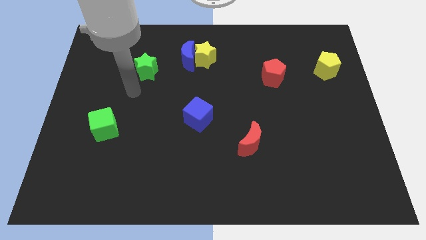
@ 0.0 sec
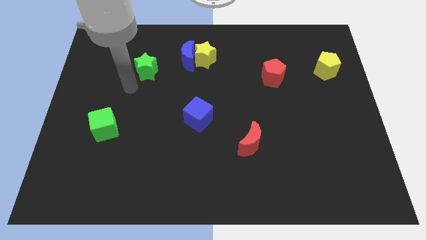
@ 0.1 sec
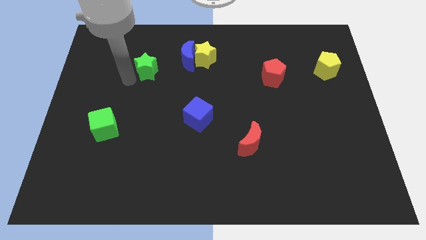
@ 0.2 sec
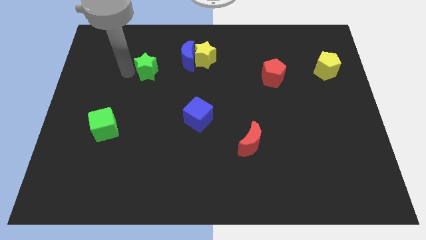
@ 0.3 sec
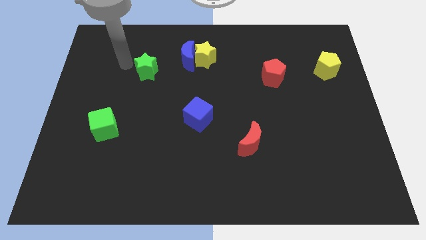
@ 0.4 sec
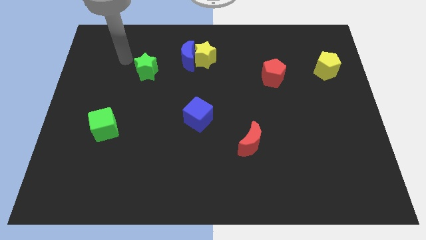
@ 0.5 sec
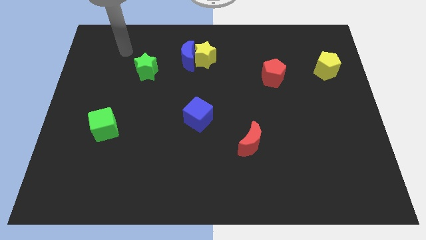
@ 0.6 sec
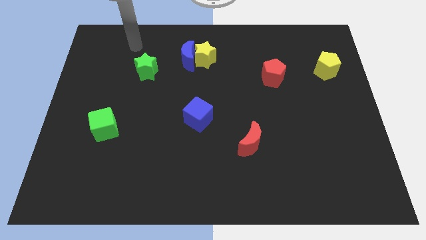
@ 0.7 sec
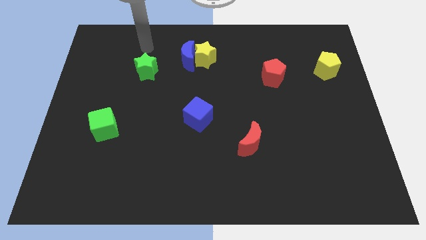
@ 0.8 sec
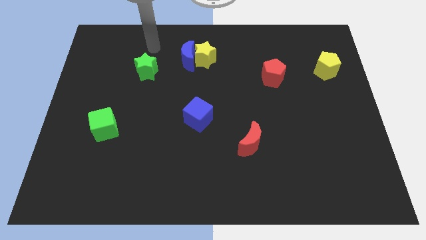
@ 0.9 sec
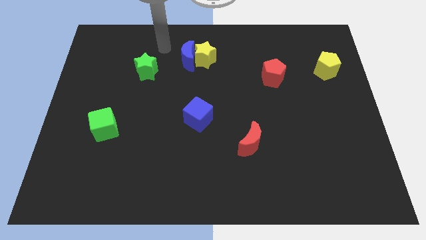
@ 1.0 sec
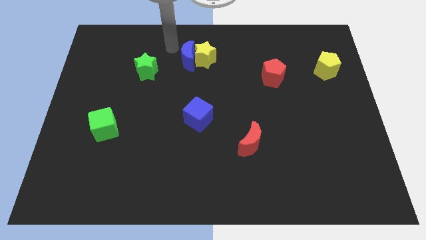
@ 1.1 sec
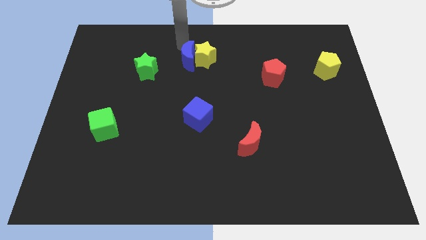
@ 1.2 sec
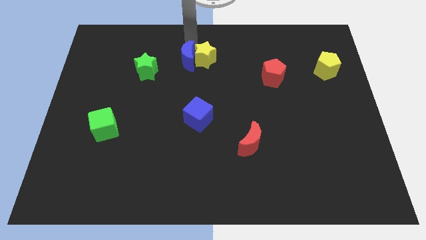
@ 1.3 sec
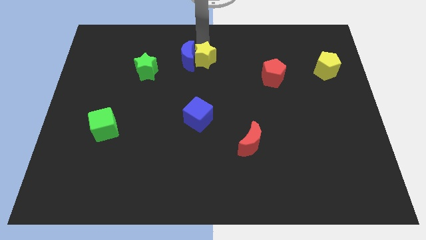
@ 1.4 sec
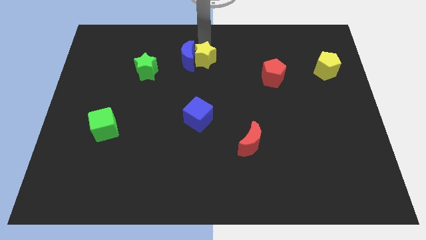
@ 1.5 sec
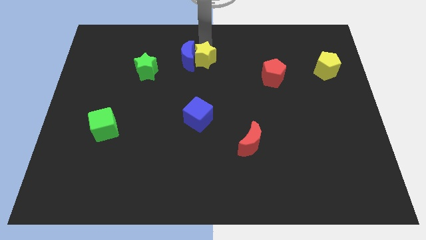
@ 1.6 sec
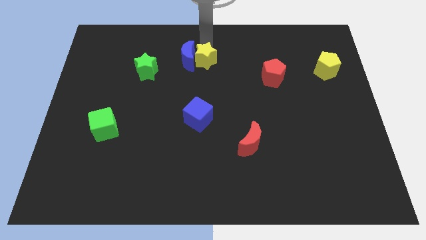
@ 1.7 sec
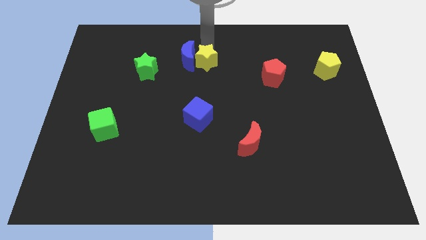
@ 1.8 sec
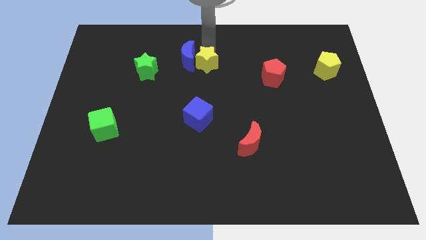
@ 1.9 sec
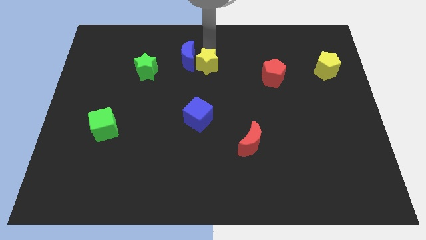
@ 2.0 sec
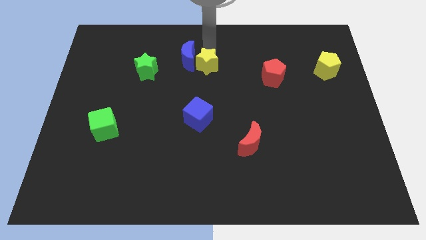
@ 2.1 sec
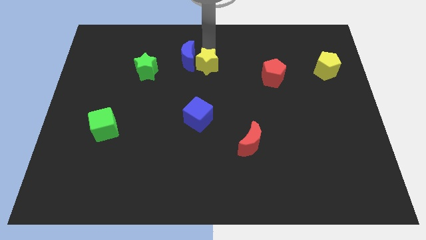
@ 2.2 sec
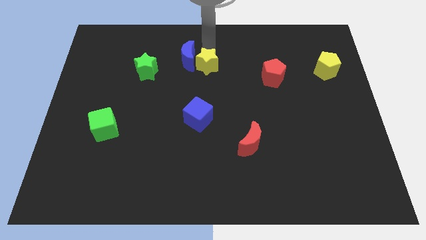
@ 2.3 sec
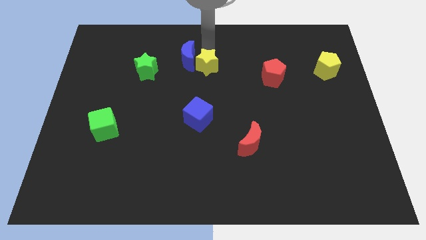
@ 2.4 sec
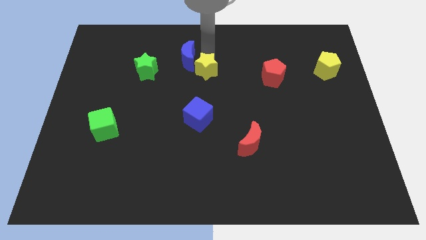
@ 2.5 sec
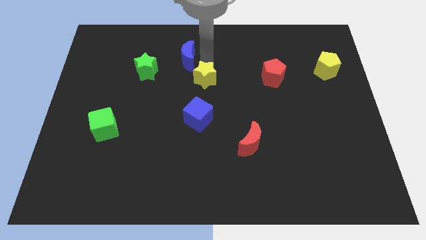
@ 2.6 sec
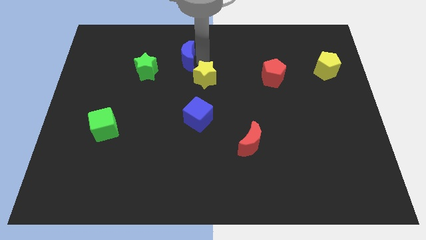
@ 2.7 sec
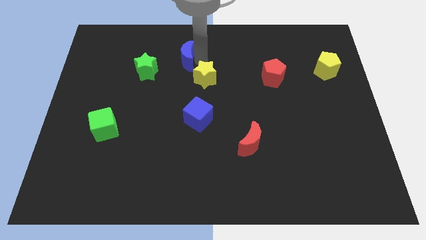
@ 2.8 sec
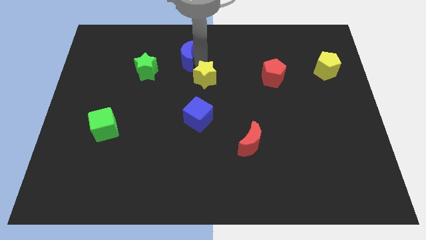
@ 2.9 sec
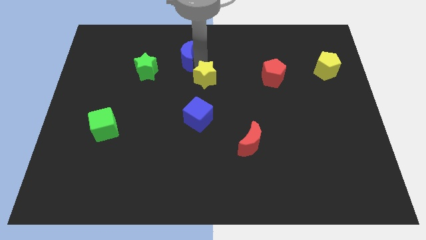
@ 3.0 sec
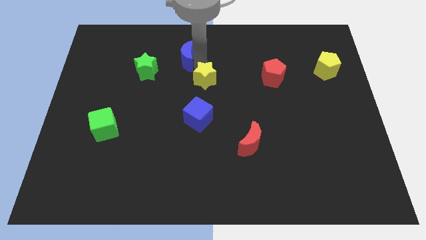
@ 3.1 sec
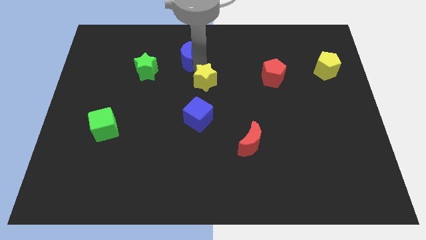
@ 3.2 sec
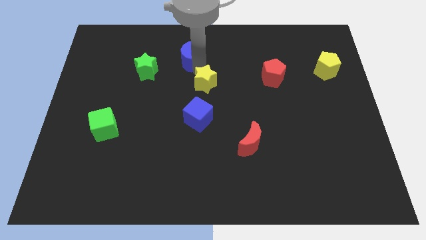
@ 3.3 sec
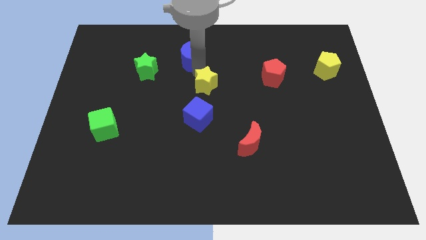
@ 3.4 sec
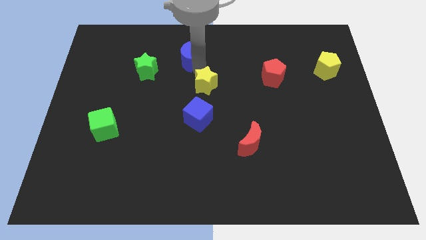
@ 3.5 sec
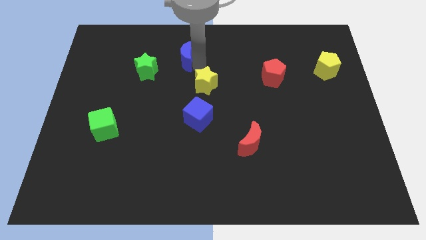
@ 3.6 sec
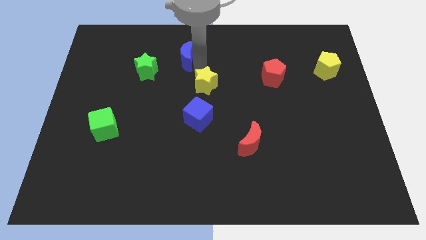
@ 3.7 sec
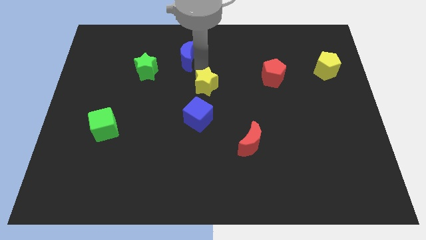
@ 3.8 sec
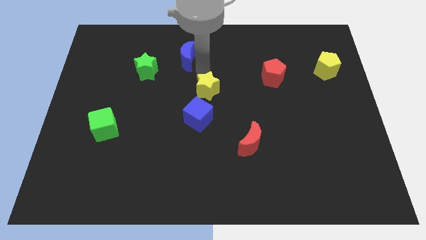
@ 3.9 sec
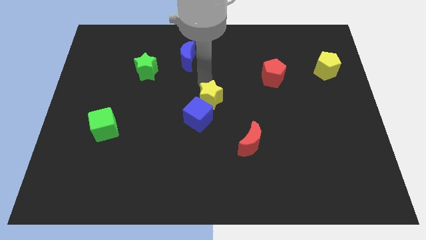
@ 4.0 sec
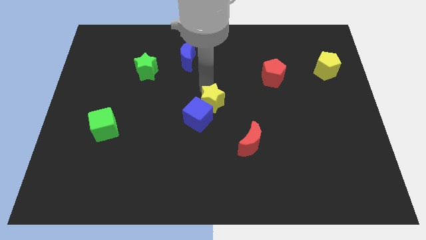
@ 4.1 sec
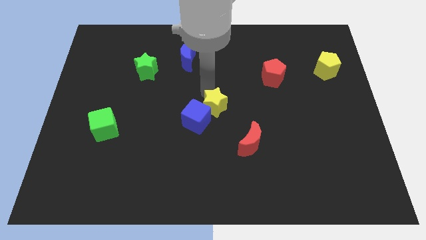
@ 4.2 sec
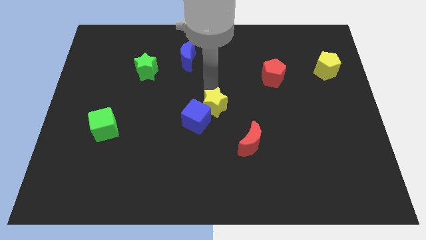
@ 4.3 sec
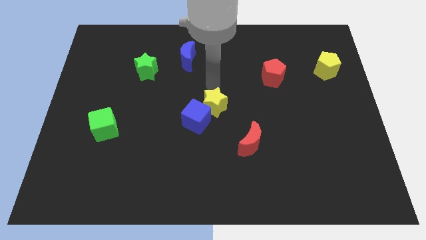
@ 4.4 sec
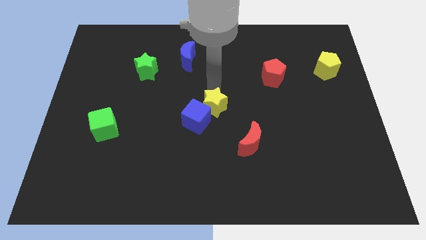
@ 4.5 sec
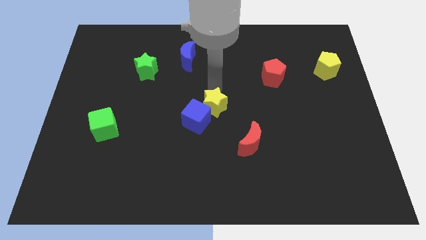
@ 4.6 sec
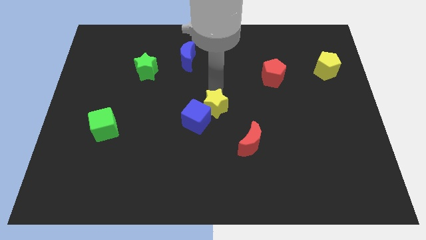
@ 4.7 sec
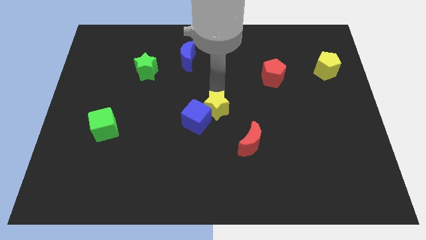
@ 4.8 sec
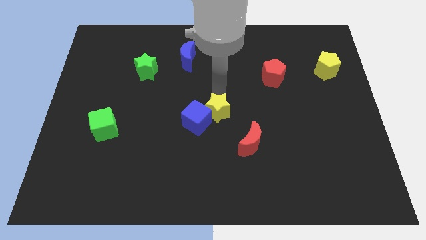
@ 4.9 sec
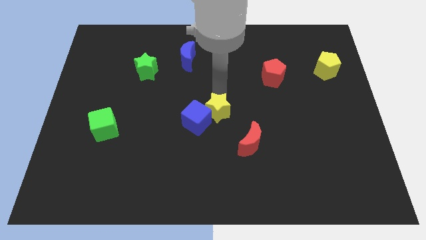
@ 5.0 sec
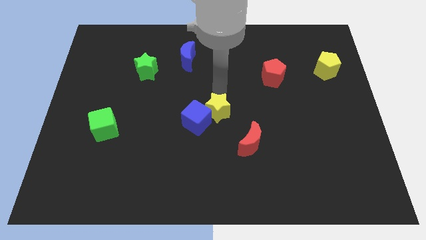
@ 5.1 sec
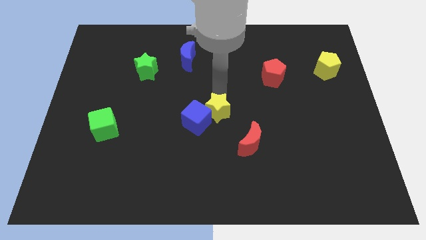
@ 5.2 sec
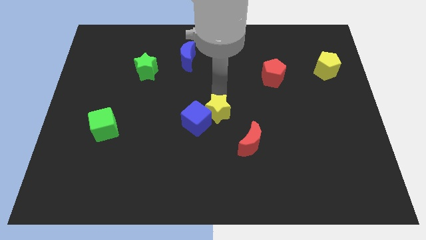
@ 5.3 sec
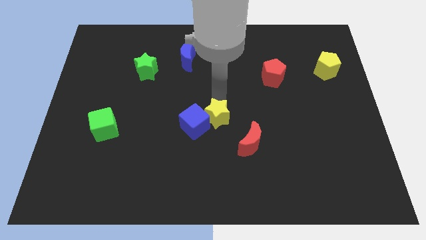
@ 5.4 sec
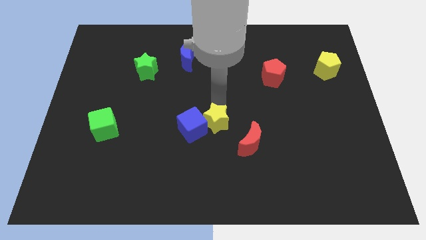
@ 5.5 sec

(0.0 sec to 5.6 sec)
push the yellow star down

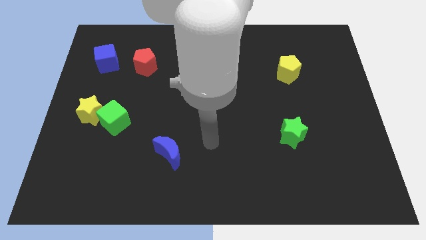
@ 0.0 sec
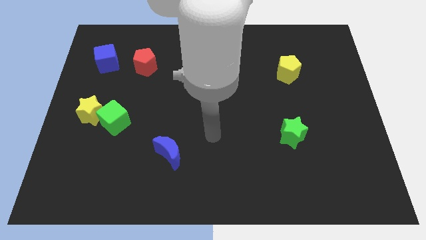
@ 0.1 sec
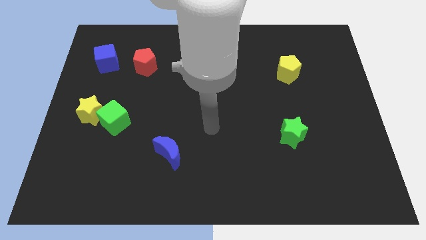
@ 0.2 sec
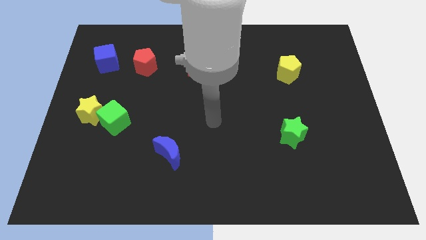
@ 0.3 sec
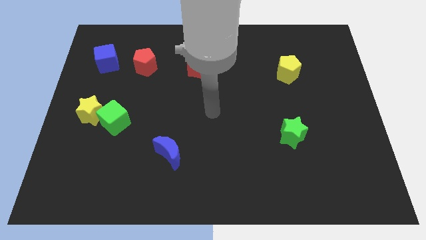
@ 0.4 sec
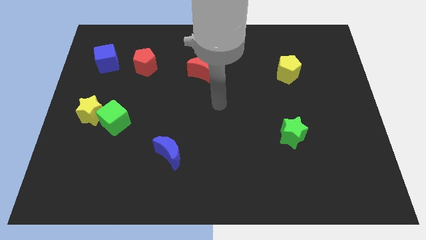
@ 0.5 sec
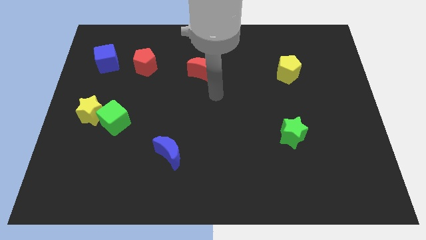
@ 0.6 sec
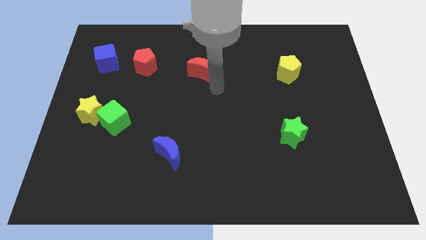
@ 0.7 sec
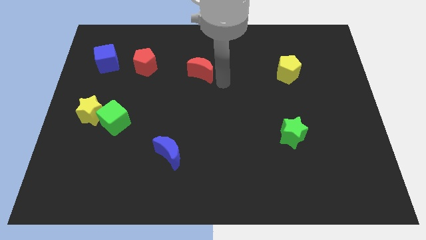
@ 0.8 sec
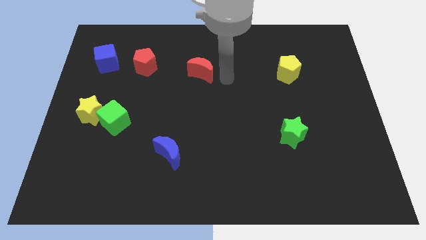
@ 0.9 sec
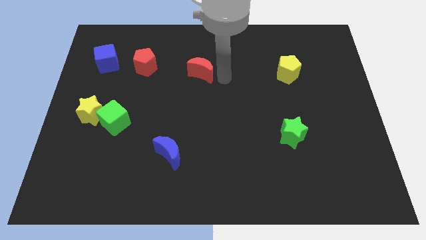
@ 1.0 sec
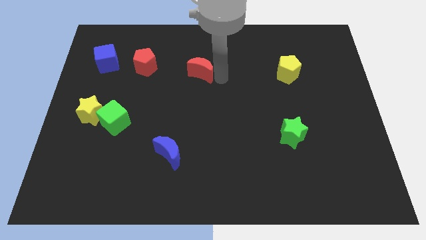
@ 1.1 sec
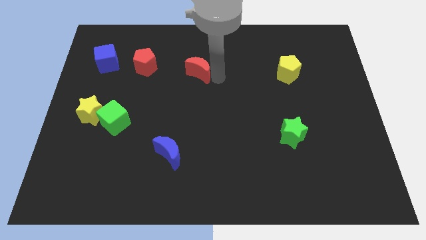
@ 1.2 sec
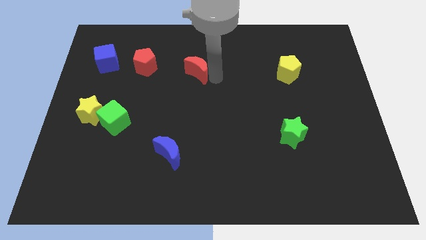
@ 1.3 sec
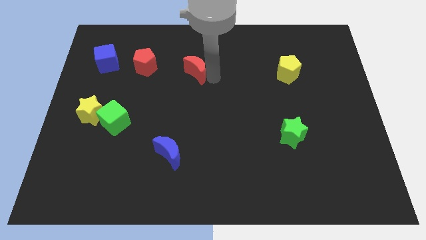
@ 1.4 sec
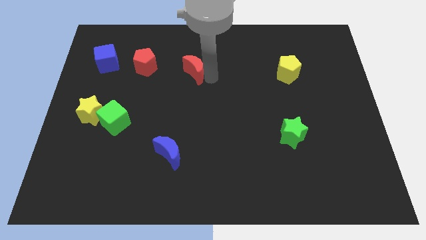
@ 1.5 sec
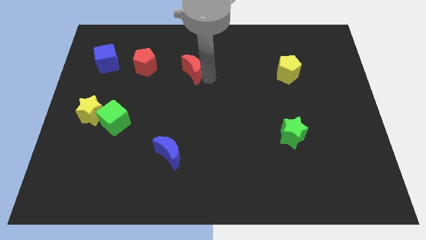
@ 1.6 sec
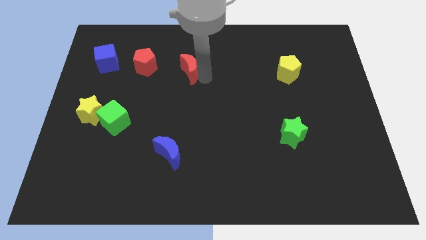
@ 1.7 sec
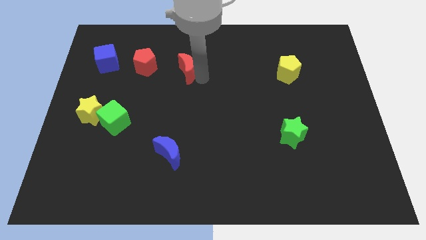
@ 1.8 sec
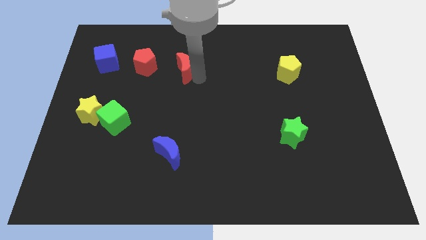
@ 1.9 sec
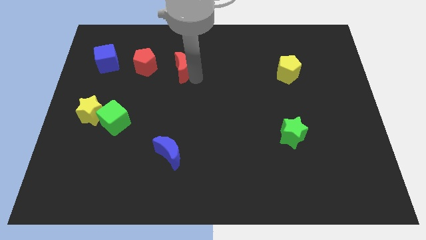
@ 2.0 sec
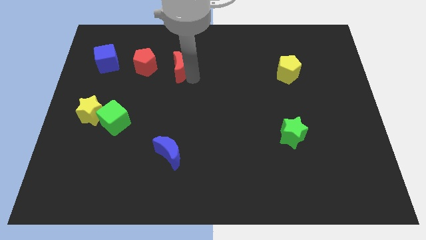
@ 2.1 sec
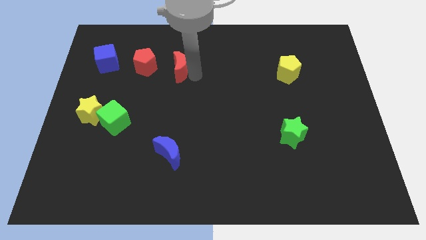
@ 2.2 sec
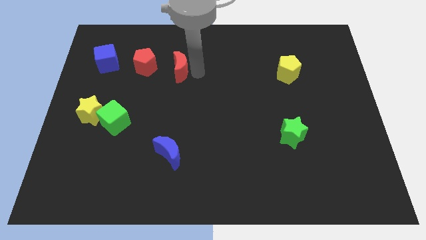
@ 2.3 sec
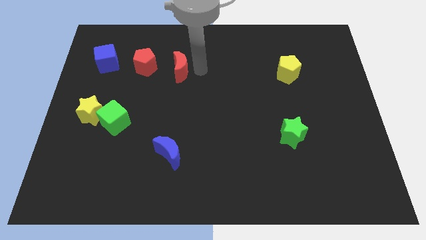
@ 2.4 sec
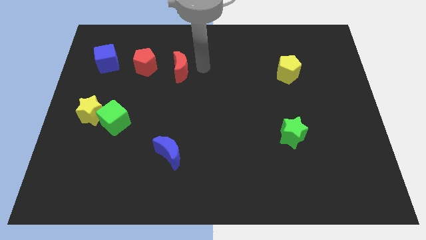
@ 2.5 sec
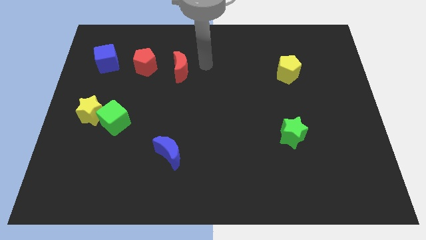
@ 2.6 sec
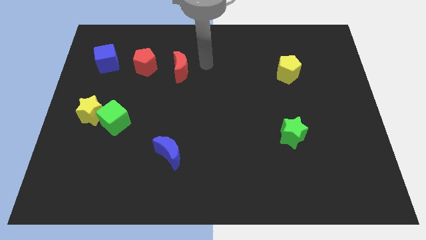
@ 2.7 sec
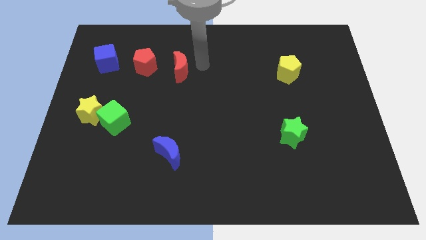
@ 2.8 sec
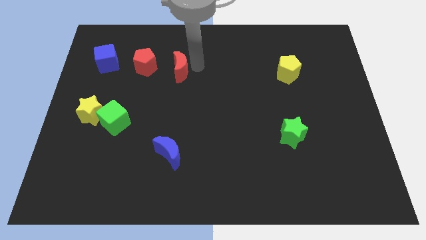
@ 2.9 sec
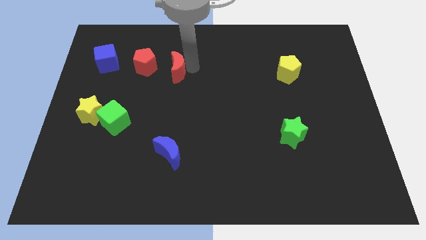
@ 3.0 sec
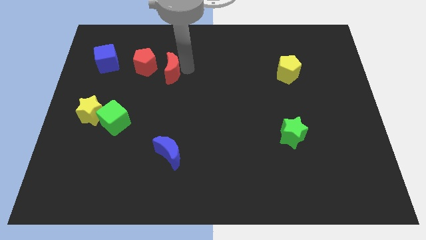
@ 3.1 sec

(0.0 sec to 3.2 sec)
move the red moon a bit left
